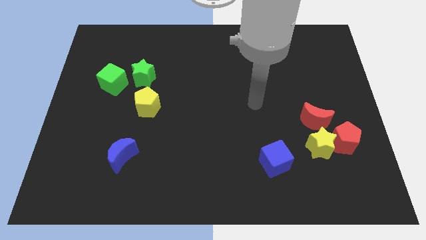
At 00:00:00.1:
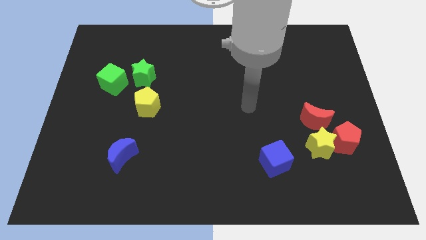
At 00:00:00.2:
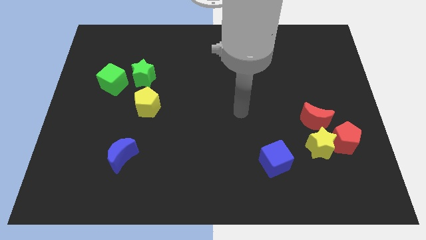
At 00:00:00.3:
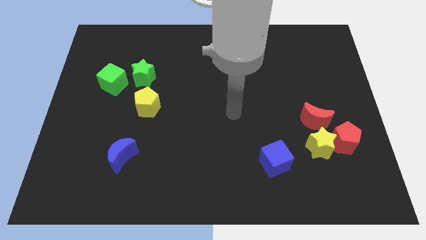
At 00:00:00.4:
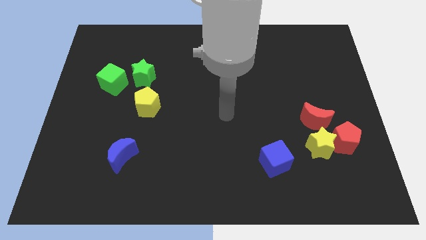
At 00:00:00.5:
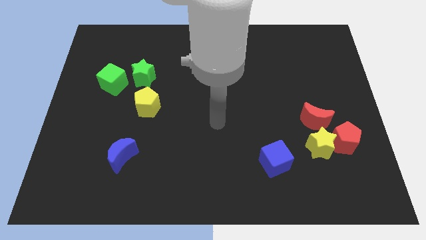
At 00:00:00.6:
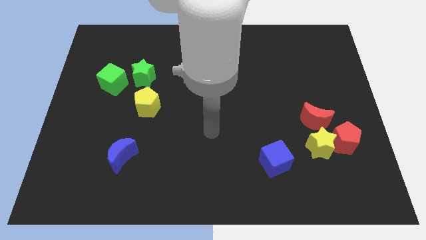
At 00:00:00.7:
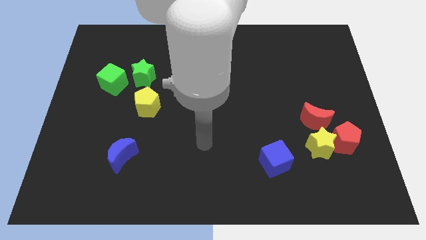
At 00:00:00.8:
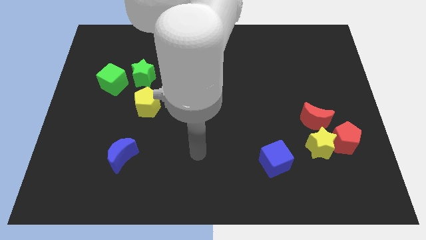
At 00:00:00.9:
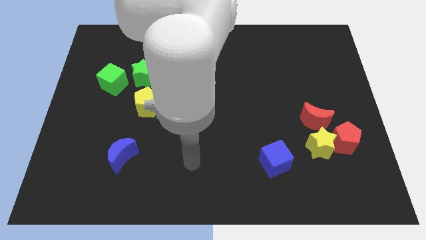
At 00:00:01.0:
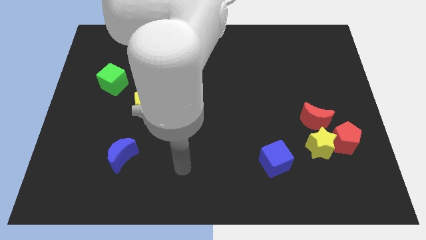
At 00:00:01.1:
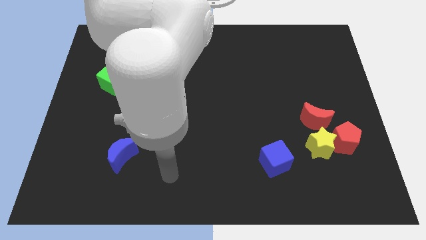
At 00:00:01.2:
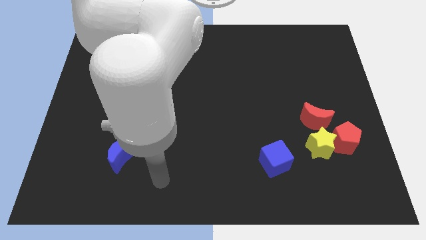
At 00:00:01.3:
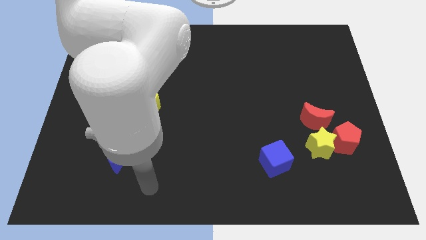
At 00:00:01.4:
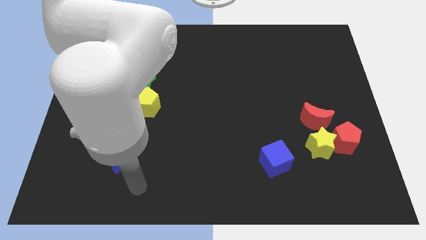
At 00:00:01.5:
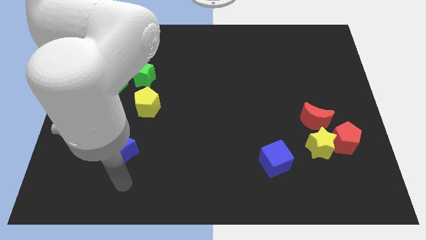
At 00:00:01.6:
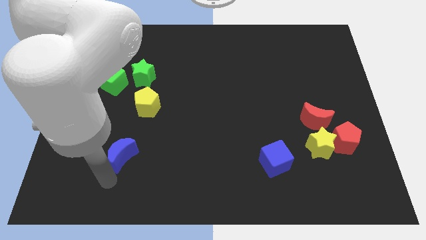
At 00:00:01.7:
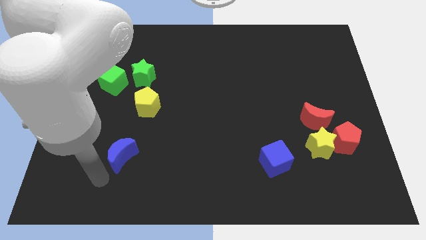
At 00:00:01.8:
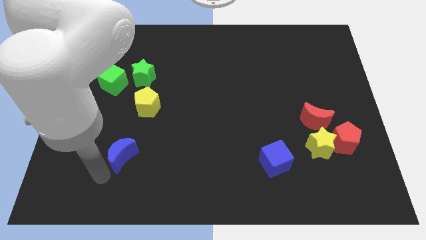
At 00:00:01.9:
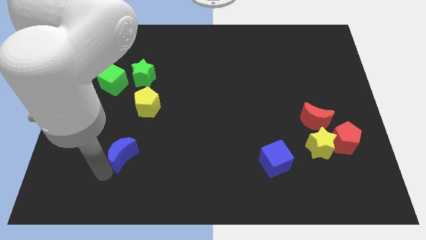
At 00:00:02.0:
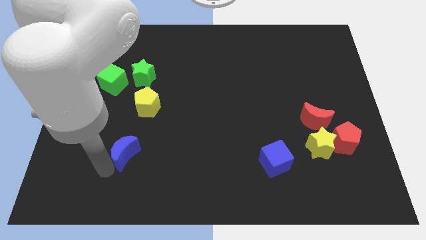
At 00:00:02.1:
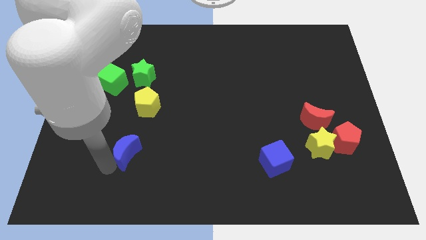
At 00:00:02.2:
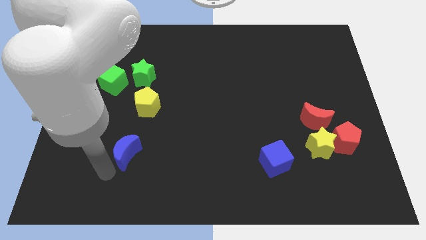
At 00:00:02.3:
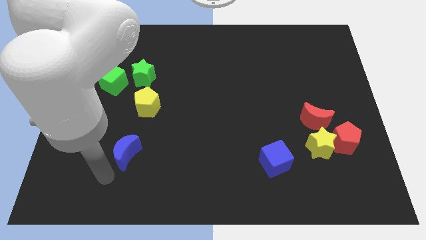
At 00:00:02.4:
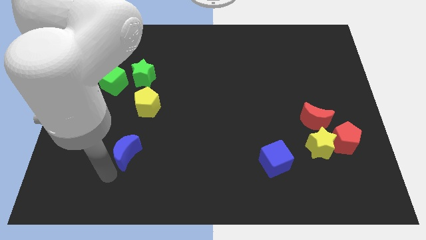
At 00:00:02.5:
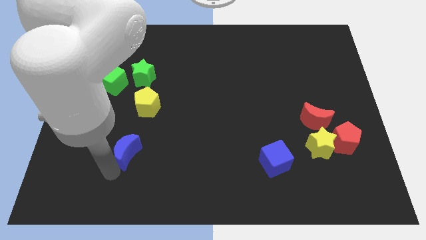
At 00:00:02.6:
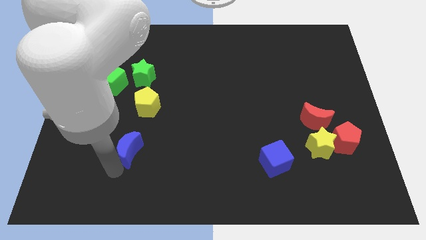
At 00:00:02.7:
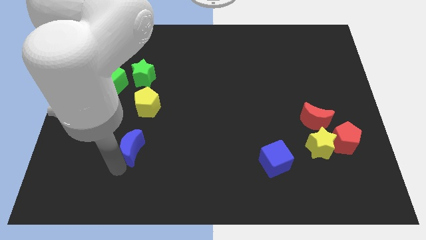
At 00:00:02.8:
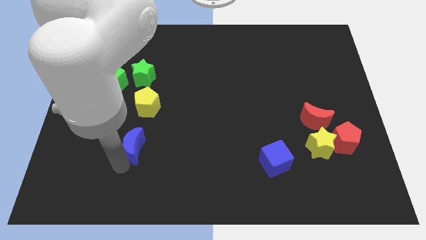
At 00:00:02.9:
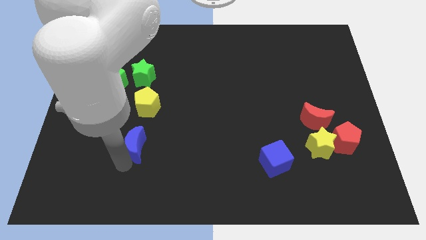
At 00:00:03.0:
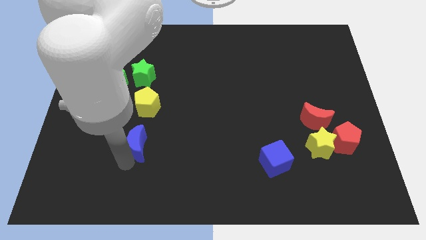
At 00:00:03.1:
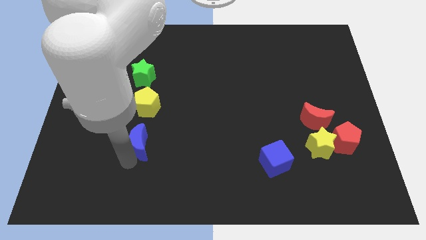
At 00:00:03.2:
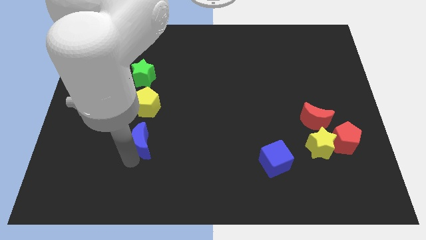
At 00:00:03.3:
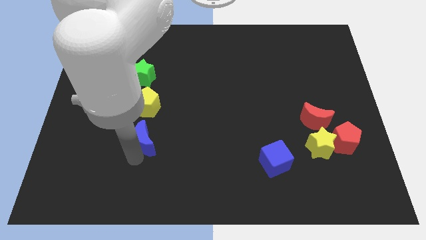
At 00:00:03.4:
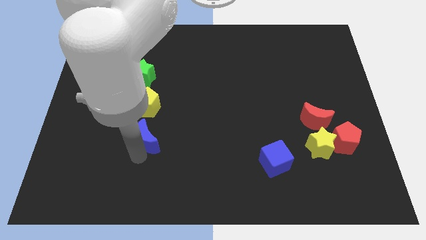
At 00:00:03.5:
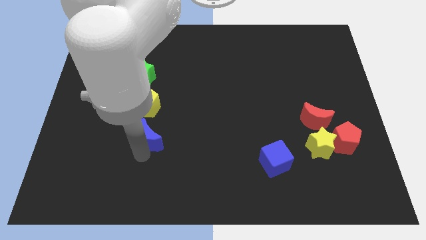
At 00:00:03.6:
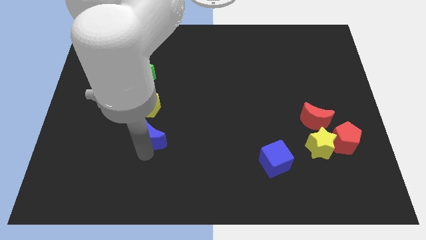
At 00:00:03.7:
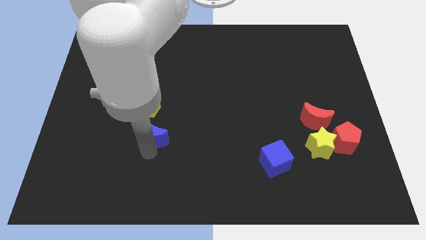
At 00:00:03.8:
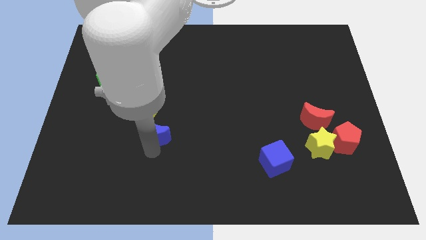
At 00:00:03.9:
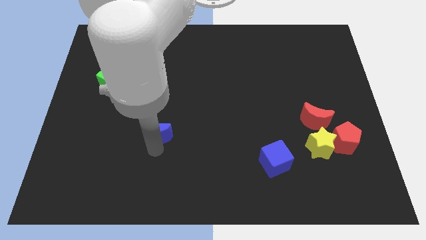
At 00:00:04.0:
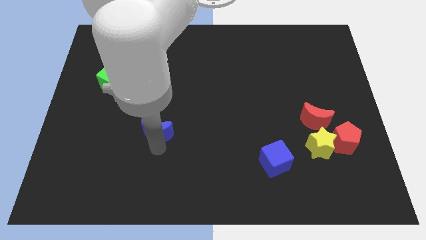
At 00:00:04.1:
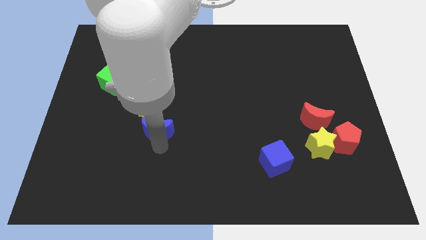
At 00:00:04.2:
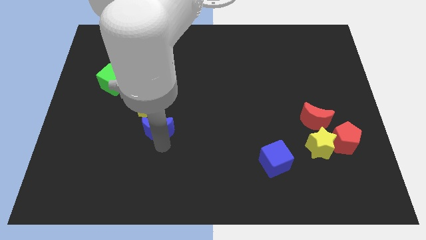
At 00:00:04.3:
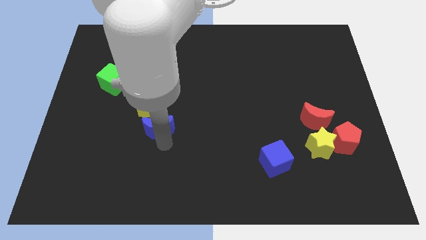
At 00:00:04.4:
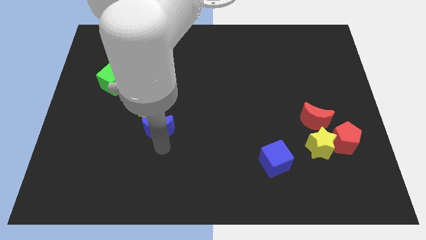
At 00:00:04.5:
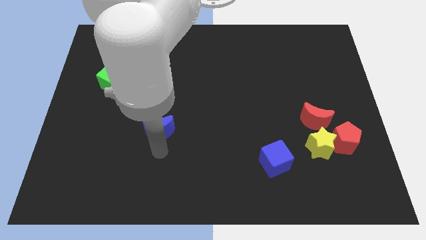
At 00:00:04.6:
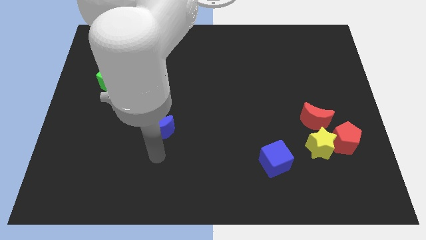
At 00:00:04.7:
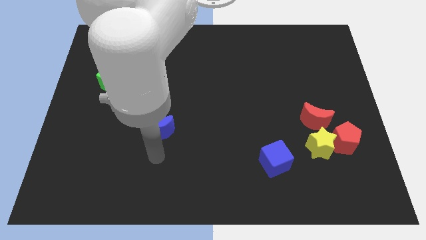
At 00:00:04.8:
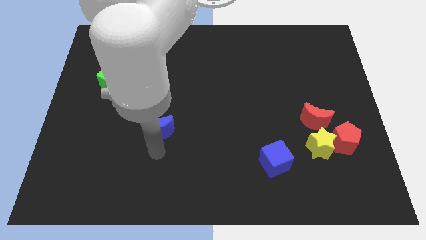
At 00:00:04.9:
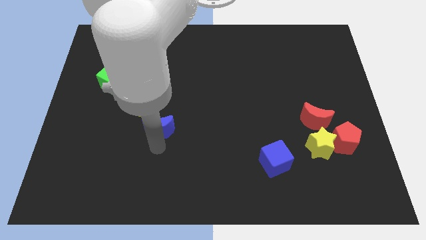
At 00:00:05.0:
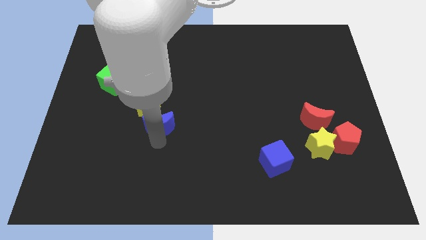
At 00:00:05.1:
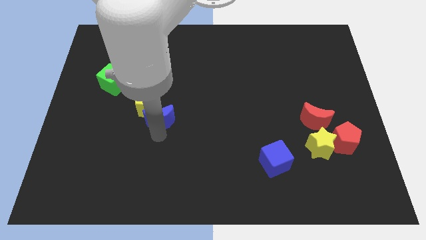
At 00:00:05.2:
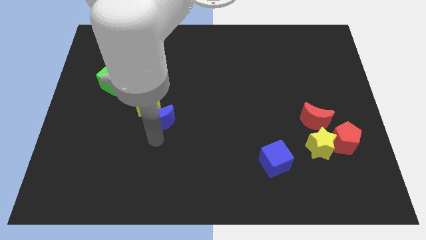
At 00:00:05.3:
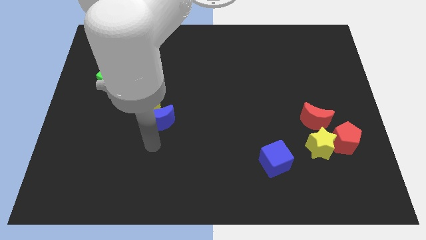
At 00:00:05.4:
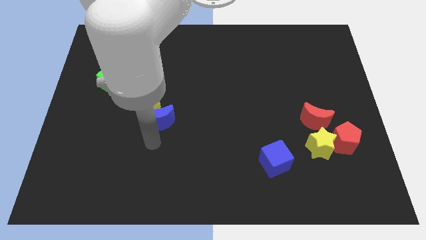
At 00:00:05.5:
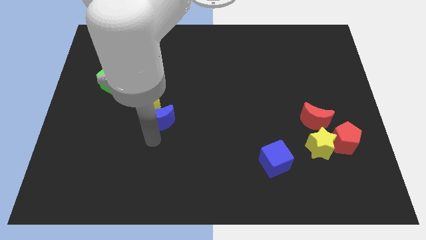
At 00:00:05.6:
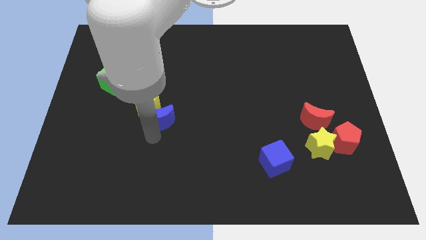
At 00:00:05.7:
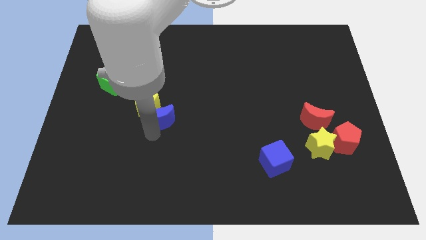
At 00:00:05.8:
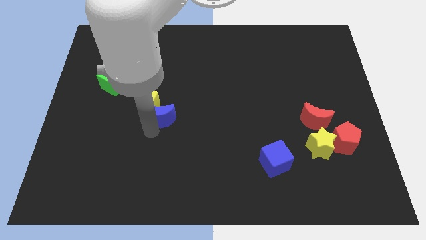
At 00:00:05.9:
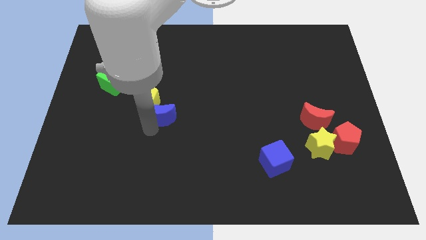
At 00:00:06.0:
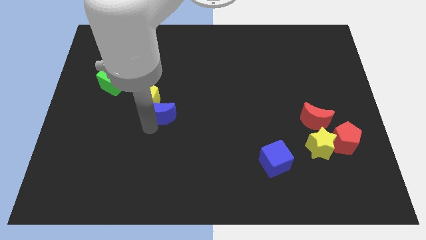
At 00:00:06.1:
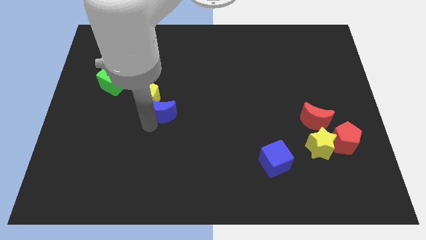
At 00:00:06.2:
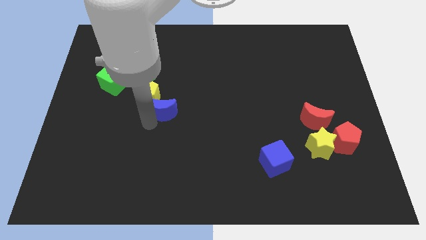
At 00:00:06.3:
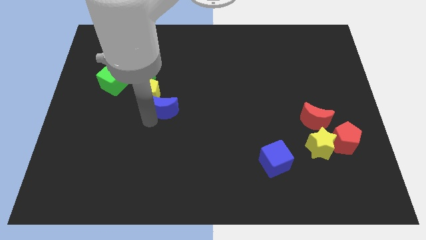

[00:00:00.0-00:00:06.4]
push the blue moon diagonally down and to the right of the green star
